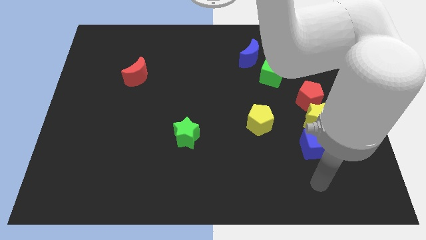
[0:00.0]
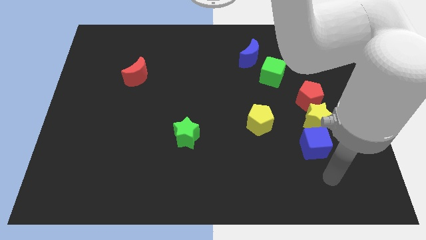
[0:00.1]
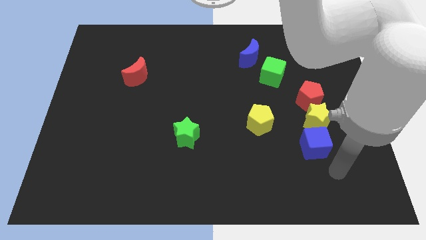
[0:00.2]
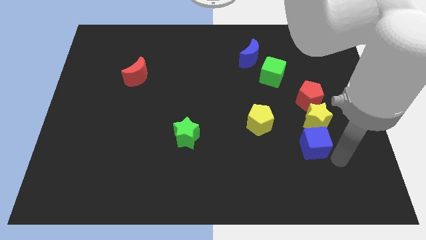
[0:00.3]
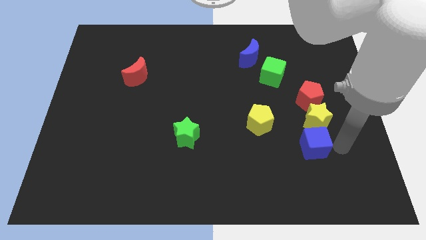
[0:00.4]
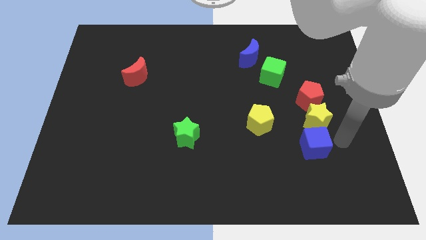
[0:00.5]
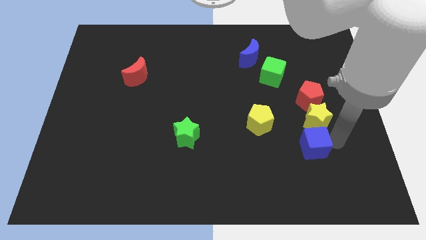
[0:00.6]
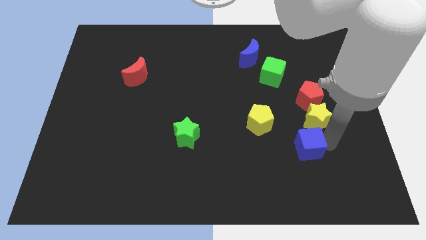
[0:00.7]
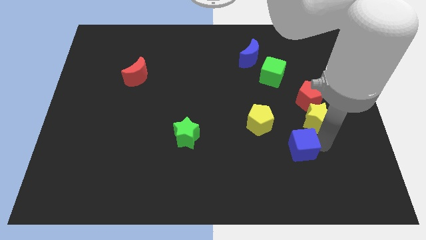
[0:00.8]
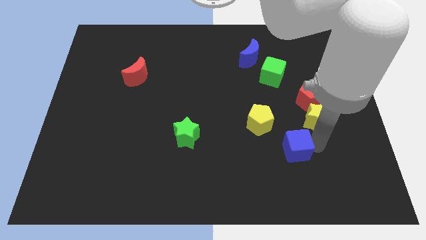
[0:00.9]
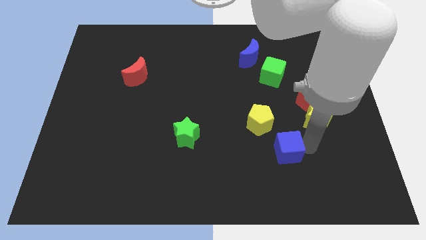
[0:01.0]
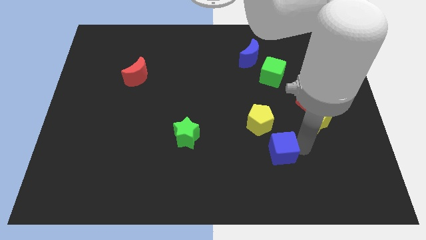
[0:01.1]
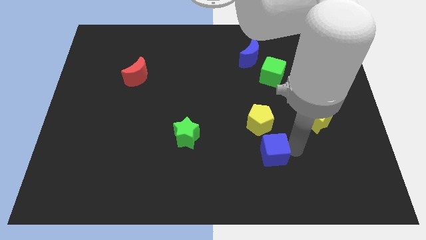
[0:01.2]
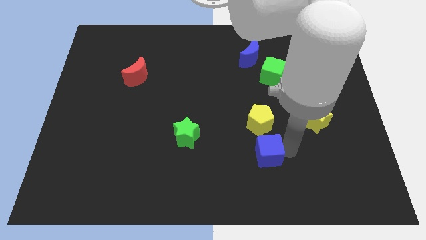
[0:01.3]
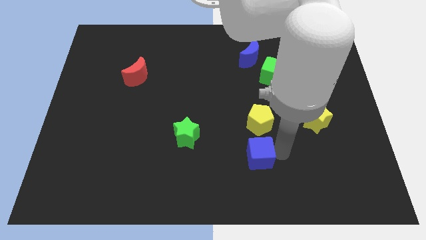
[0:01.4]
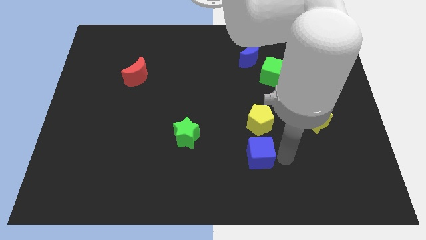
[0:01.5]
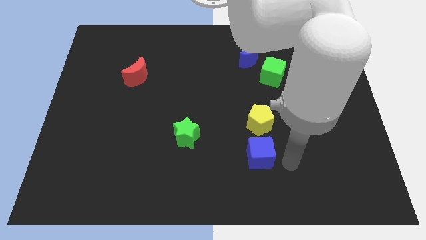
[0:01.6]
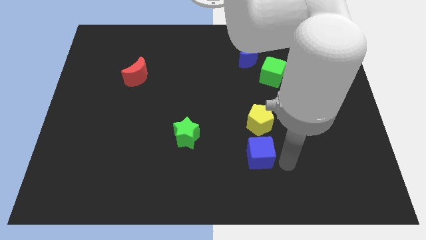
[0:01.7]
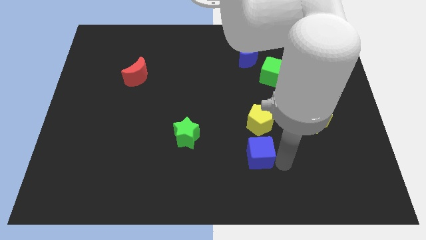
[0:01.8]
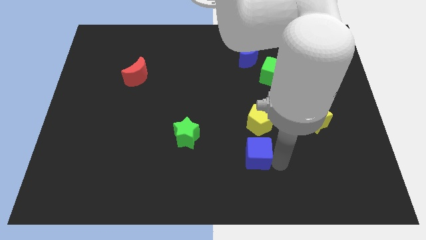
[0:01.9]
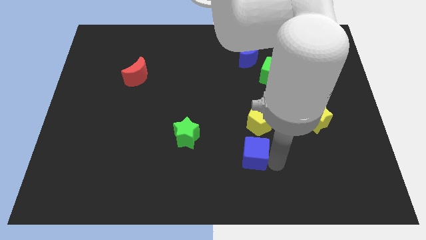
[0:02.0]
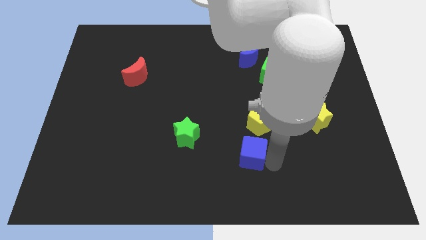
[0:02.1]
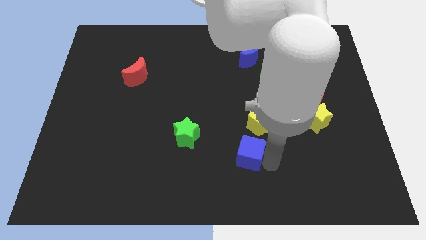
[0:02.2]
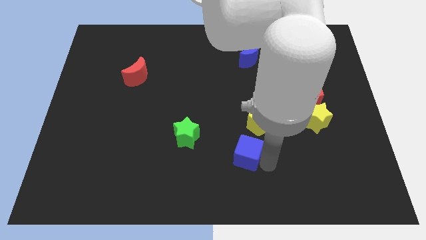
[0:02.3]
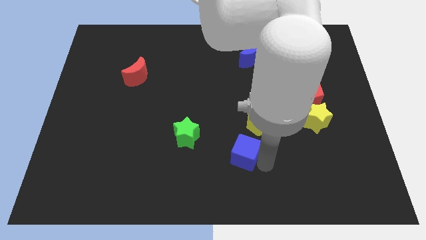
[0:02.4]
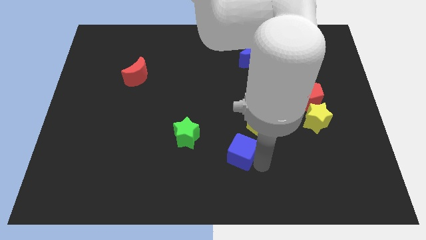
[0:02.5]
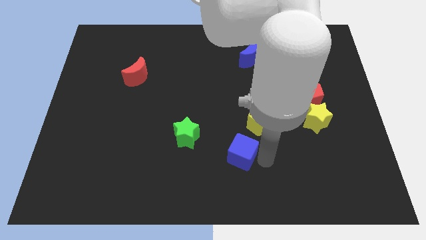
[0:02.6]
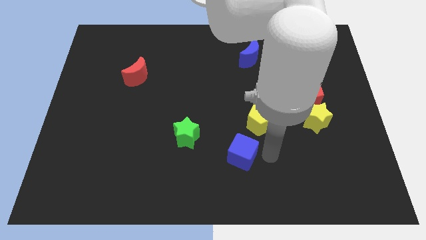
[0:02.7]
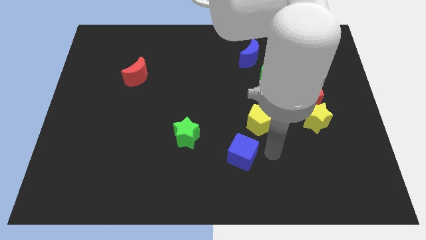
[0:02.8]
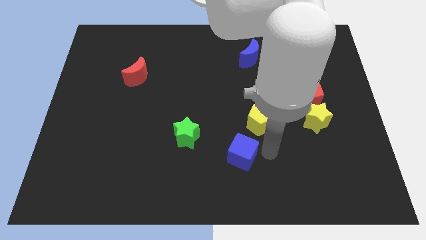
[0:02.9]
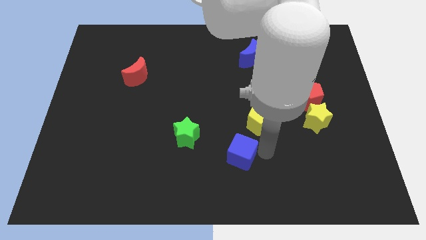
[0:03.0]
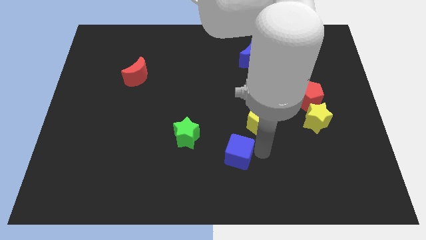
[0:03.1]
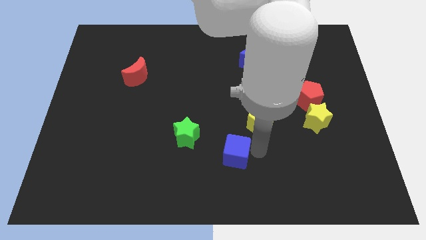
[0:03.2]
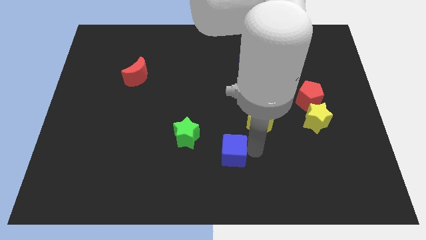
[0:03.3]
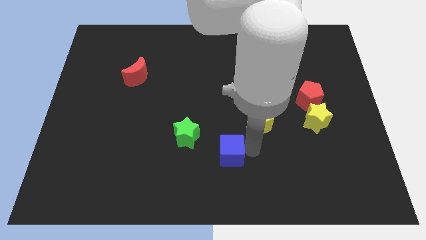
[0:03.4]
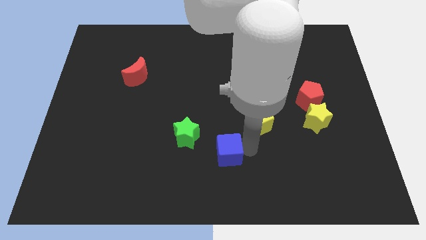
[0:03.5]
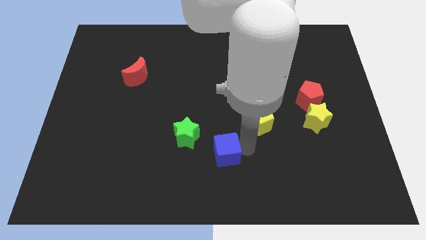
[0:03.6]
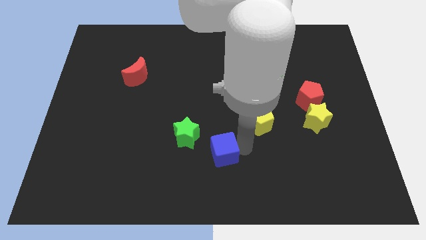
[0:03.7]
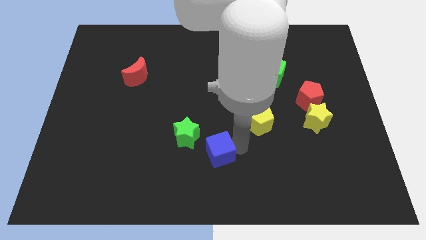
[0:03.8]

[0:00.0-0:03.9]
move the blue cube to the left

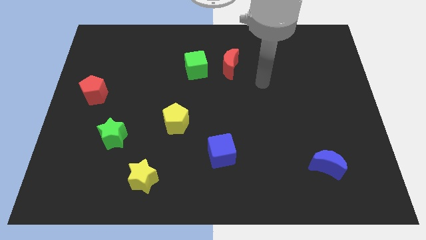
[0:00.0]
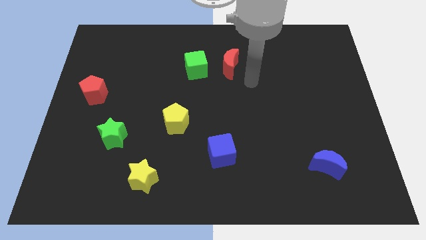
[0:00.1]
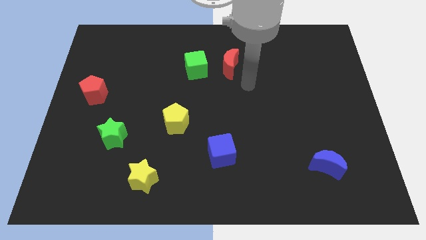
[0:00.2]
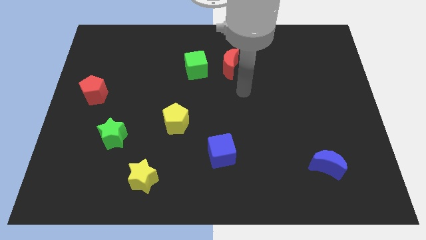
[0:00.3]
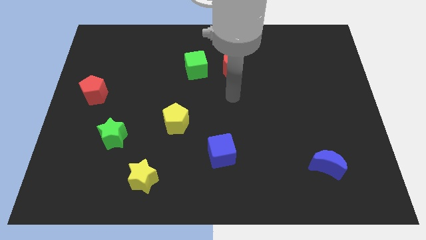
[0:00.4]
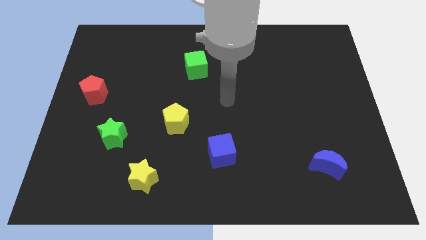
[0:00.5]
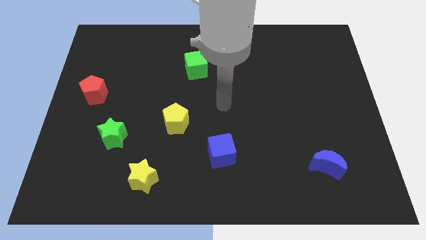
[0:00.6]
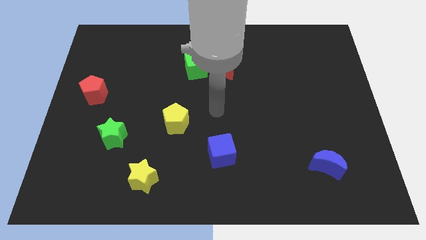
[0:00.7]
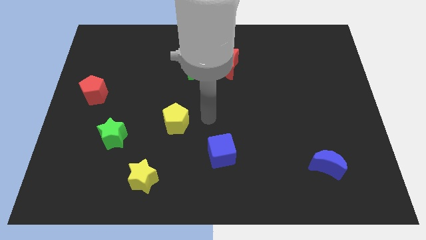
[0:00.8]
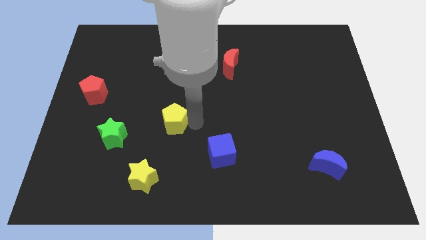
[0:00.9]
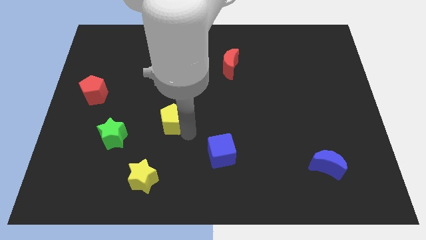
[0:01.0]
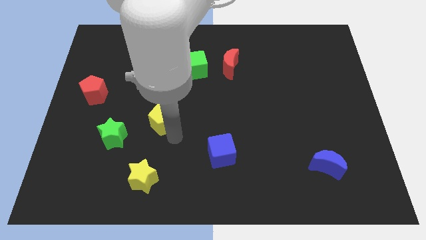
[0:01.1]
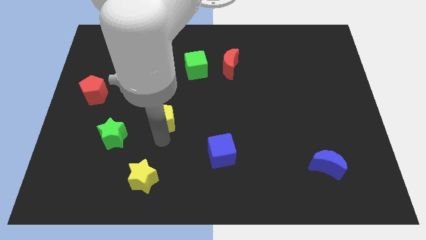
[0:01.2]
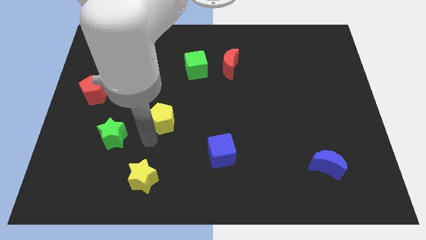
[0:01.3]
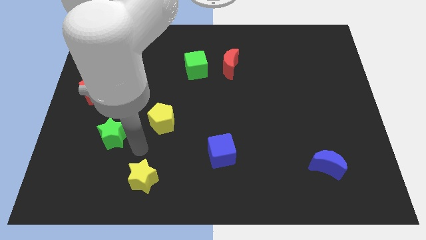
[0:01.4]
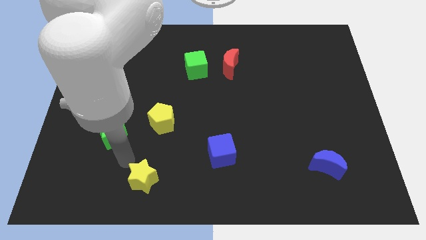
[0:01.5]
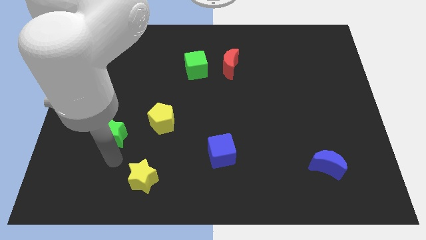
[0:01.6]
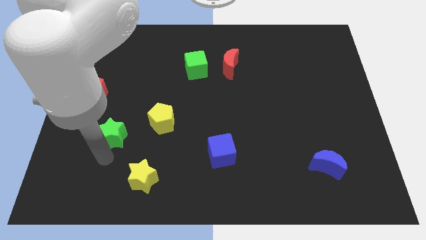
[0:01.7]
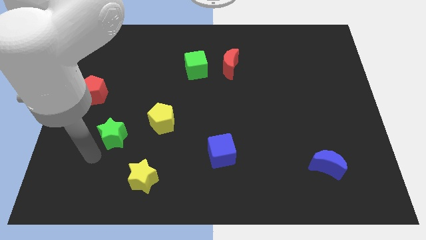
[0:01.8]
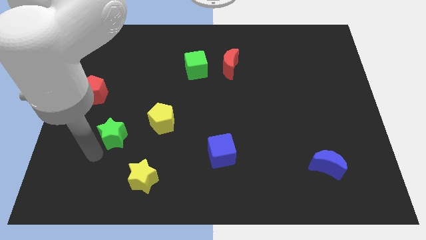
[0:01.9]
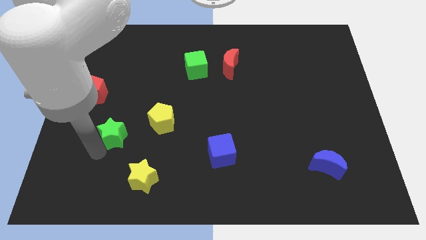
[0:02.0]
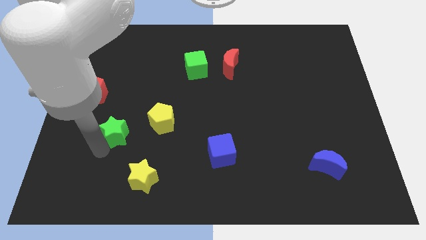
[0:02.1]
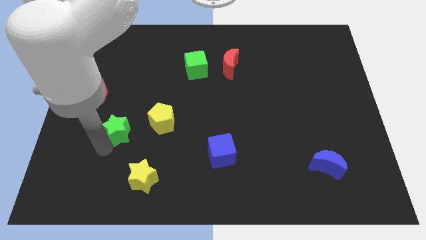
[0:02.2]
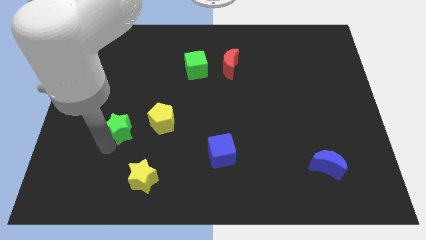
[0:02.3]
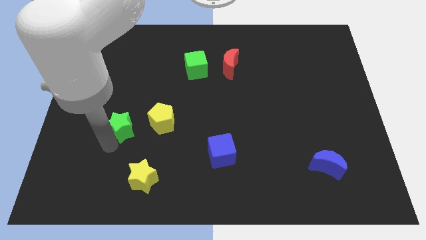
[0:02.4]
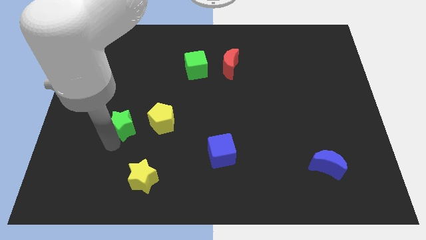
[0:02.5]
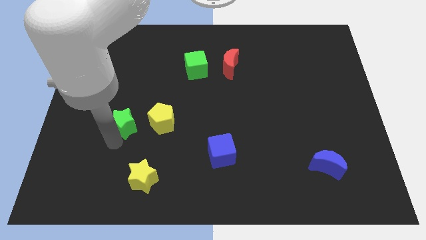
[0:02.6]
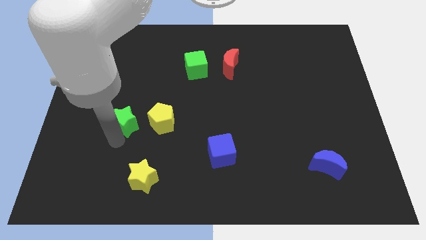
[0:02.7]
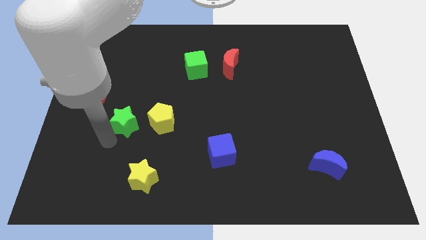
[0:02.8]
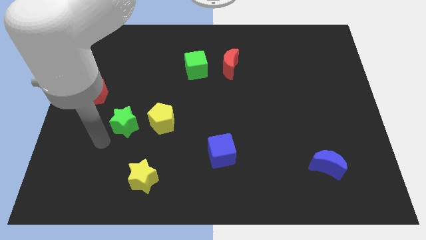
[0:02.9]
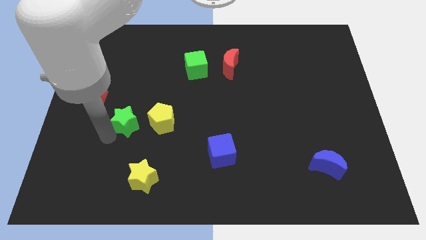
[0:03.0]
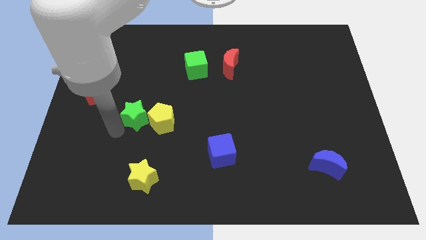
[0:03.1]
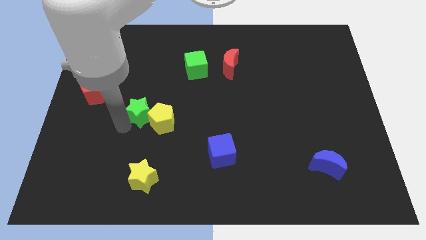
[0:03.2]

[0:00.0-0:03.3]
slightly move the green star upwards and right

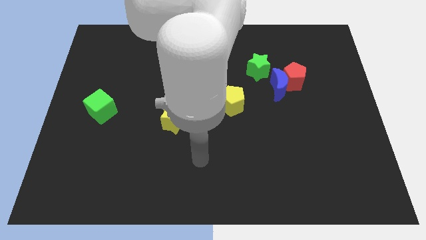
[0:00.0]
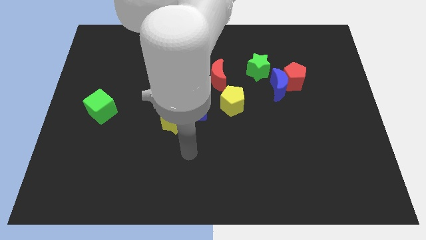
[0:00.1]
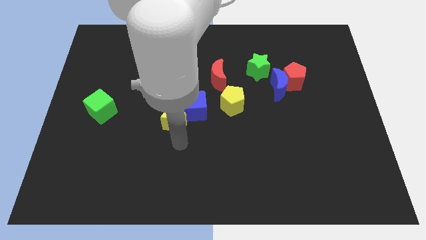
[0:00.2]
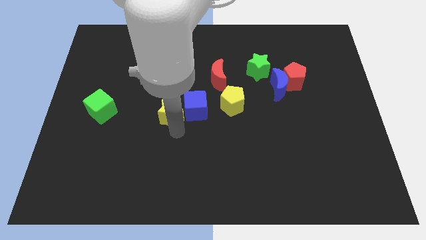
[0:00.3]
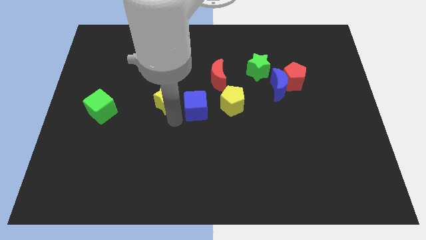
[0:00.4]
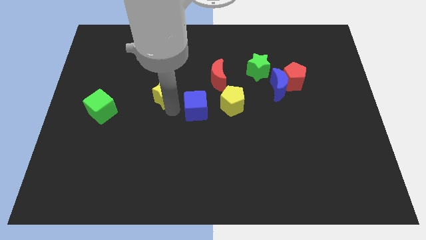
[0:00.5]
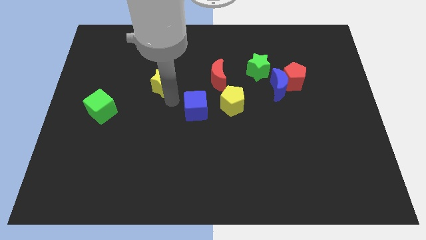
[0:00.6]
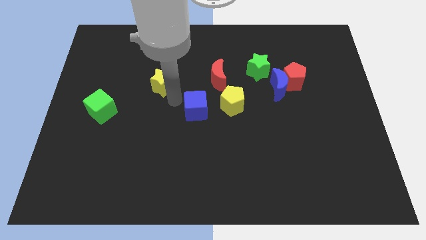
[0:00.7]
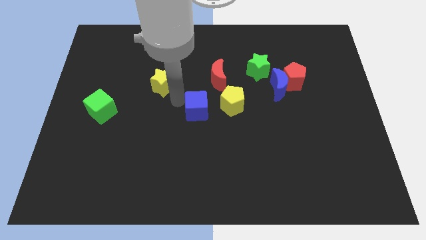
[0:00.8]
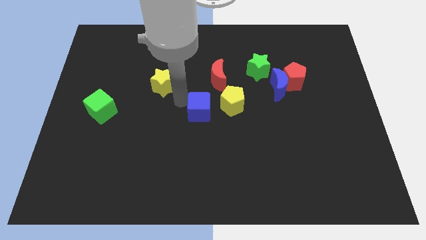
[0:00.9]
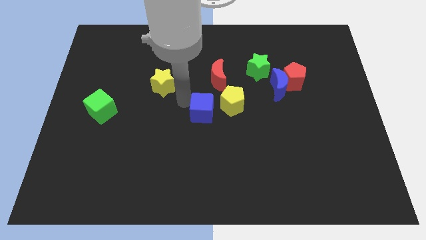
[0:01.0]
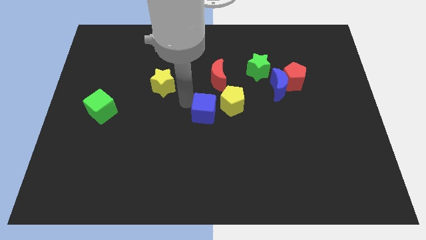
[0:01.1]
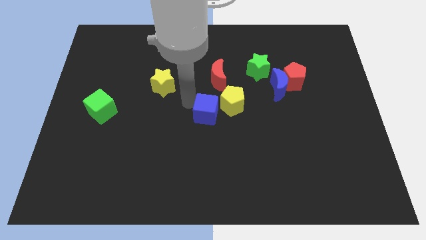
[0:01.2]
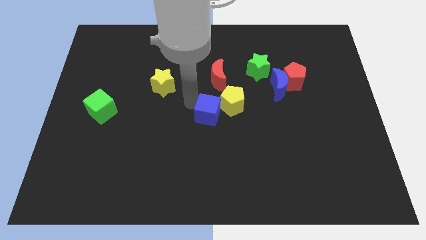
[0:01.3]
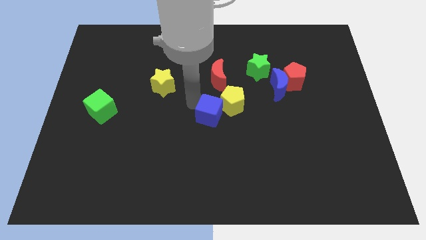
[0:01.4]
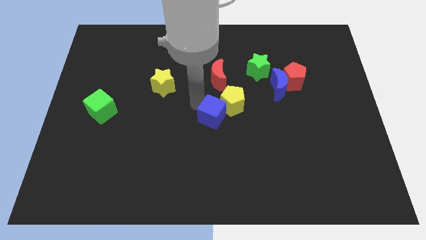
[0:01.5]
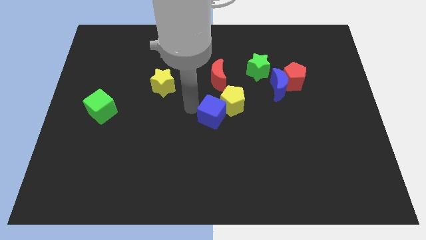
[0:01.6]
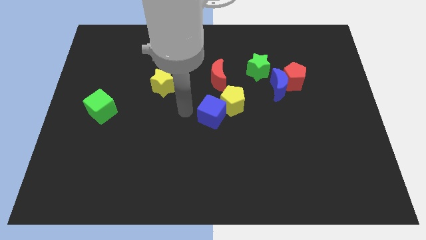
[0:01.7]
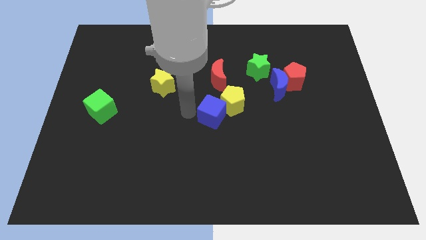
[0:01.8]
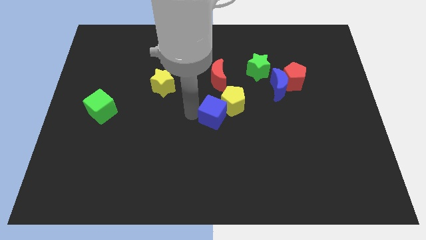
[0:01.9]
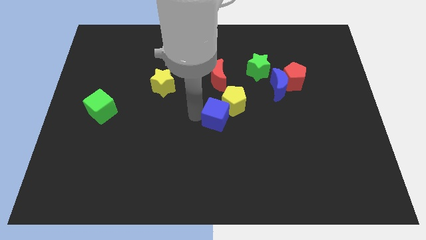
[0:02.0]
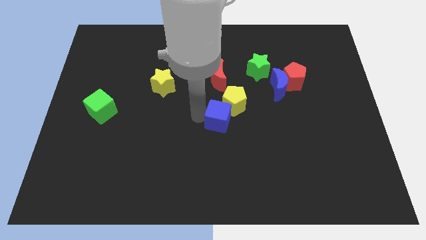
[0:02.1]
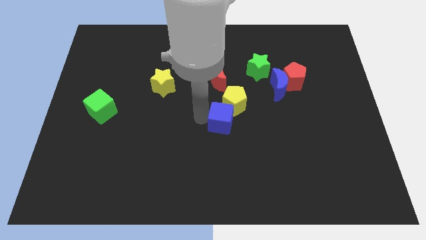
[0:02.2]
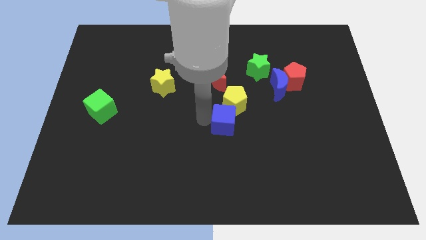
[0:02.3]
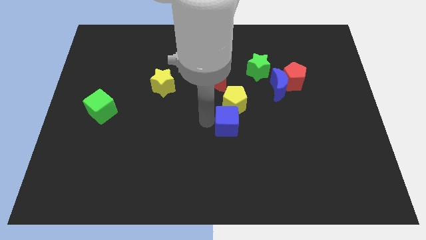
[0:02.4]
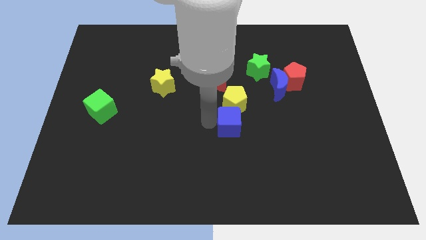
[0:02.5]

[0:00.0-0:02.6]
slide the blue cube right a bit
